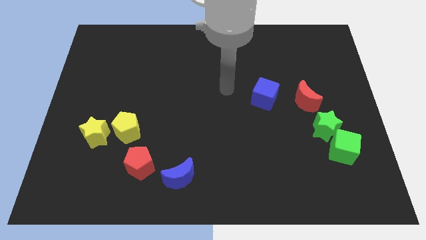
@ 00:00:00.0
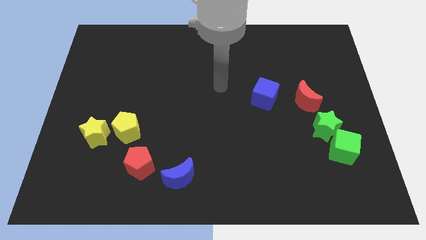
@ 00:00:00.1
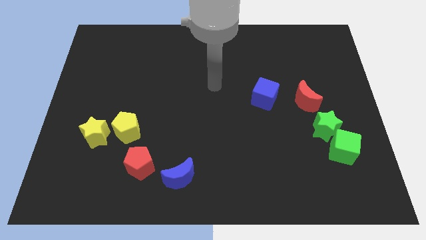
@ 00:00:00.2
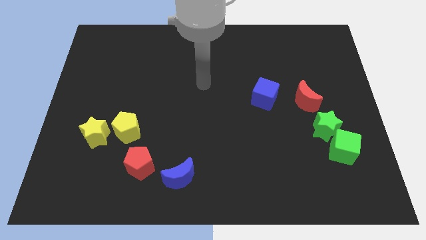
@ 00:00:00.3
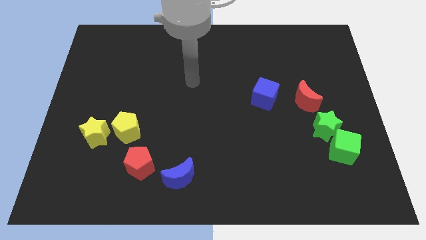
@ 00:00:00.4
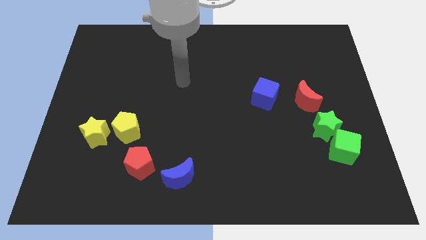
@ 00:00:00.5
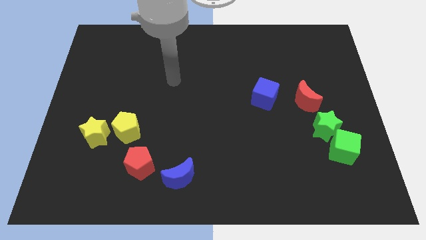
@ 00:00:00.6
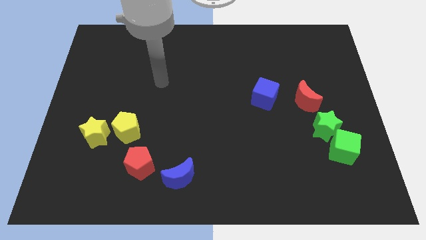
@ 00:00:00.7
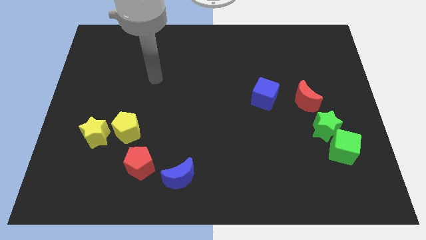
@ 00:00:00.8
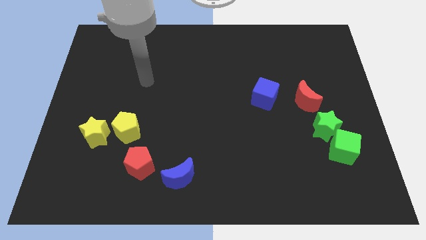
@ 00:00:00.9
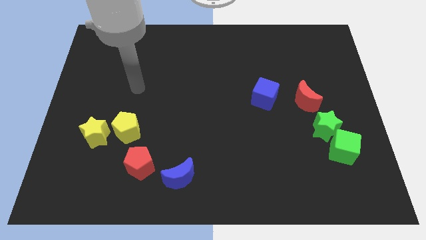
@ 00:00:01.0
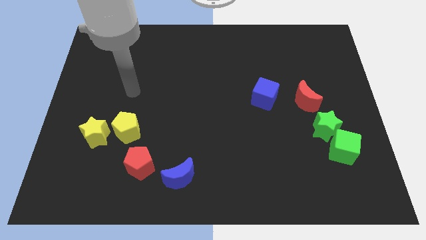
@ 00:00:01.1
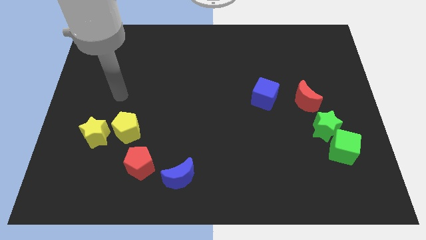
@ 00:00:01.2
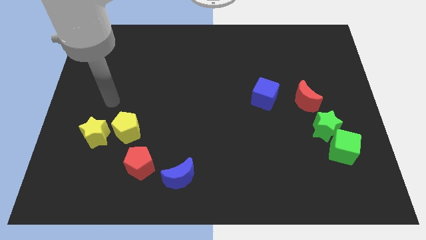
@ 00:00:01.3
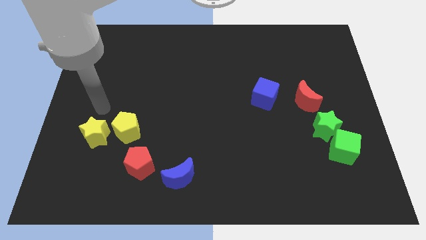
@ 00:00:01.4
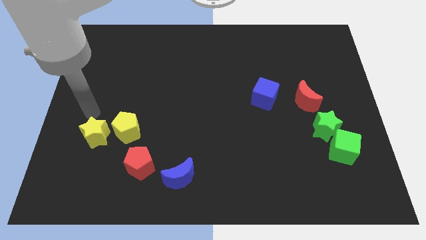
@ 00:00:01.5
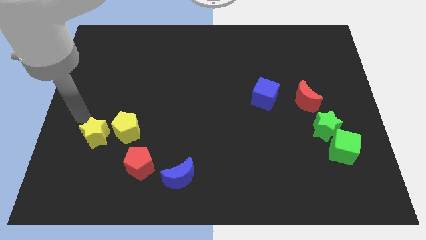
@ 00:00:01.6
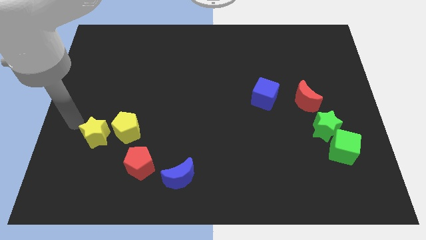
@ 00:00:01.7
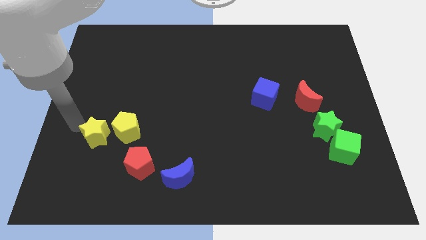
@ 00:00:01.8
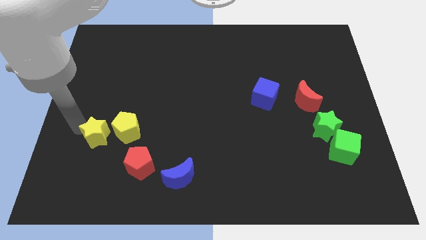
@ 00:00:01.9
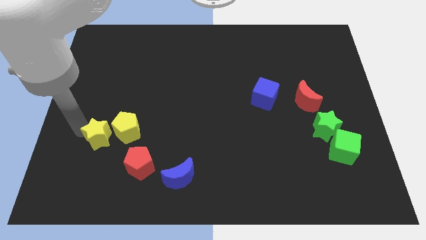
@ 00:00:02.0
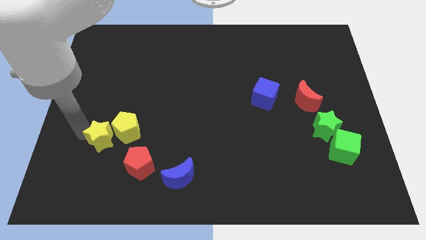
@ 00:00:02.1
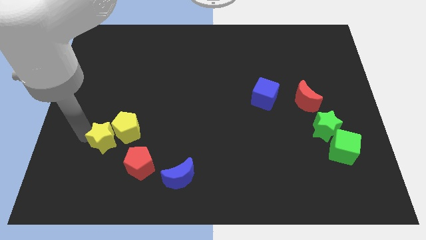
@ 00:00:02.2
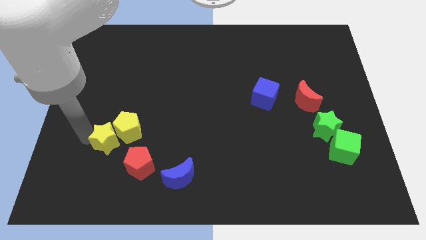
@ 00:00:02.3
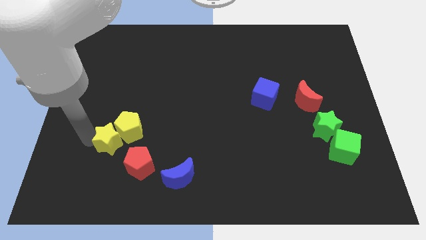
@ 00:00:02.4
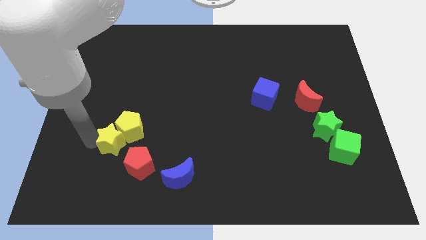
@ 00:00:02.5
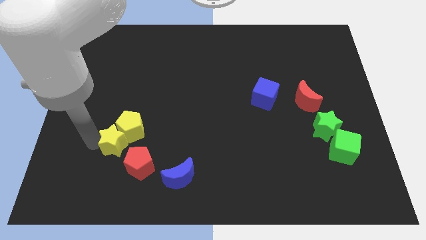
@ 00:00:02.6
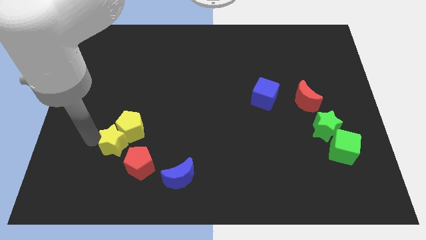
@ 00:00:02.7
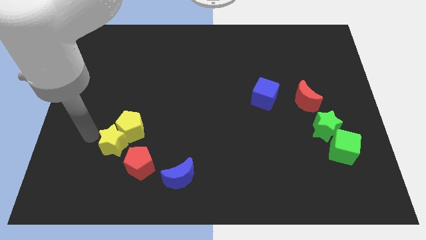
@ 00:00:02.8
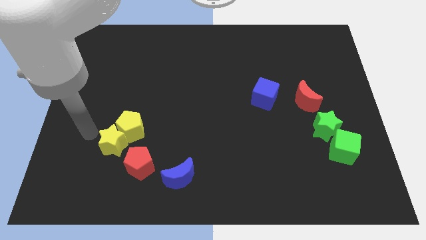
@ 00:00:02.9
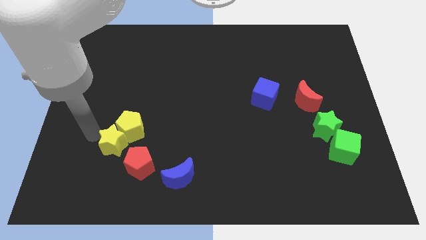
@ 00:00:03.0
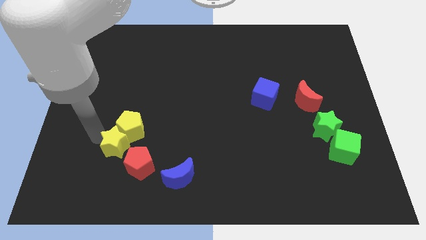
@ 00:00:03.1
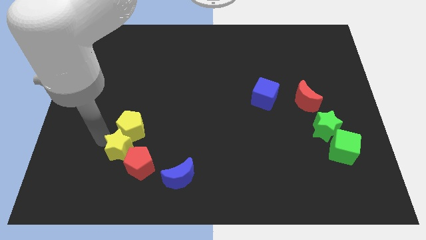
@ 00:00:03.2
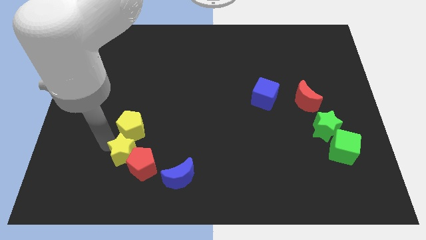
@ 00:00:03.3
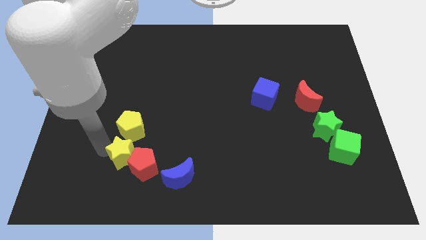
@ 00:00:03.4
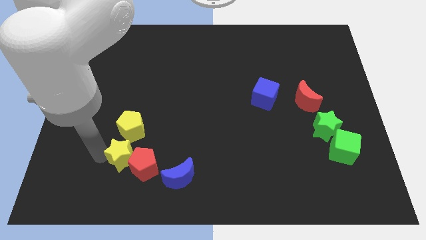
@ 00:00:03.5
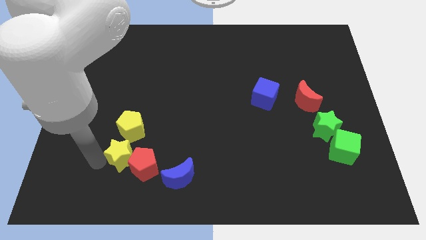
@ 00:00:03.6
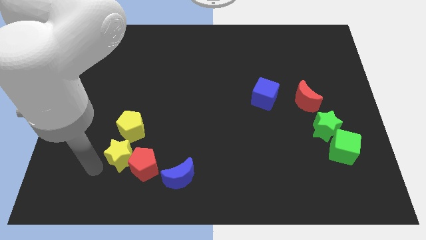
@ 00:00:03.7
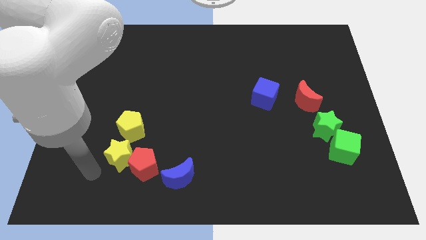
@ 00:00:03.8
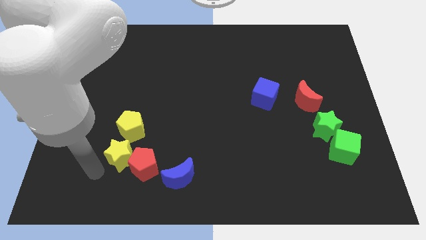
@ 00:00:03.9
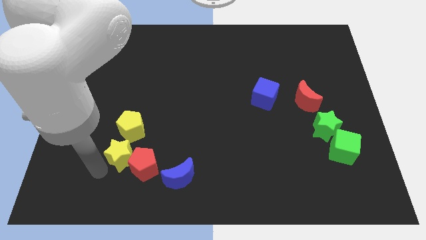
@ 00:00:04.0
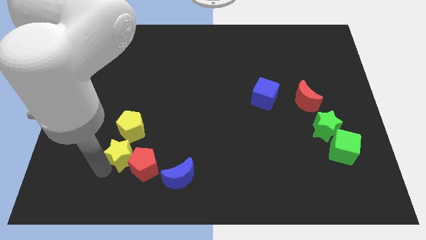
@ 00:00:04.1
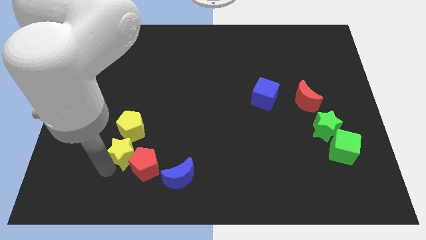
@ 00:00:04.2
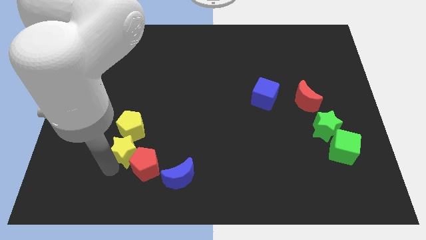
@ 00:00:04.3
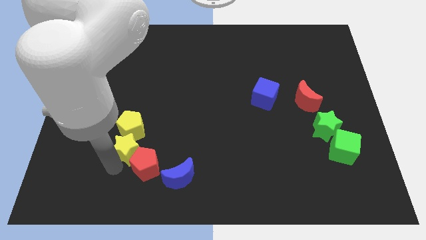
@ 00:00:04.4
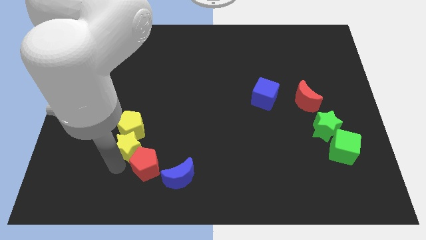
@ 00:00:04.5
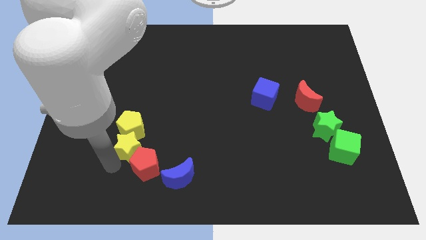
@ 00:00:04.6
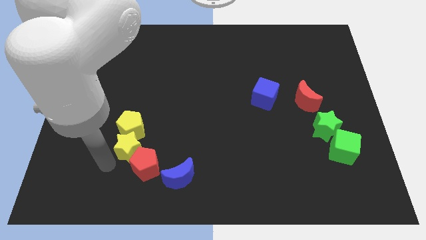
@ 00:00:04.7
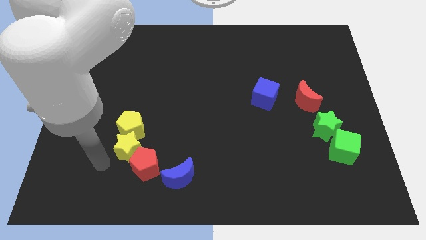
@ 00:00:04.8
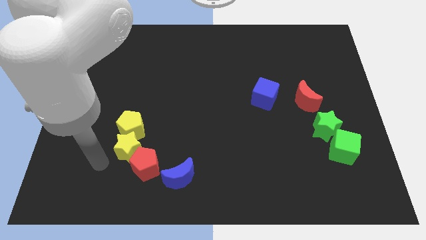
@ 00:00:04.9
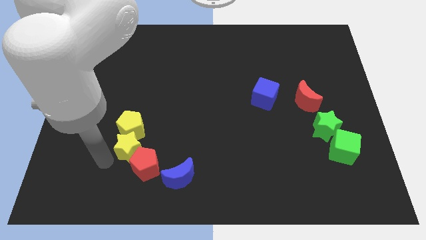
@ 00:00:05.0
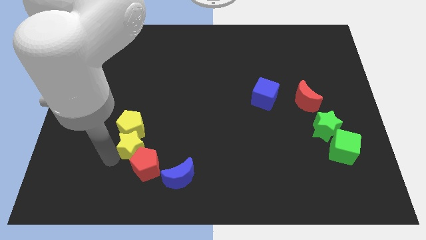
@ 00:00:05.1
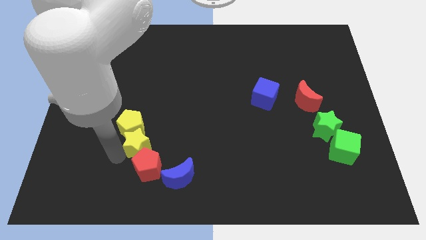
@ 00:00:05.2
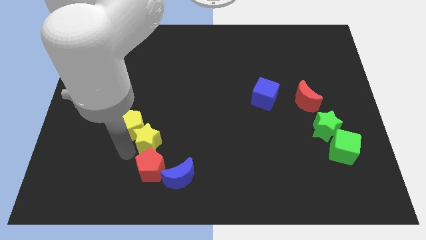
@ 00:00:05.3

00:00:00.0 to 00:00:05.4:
push the yellow star to the right side of the yellow pentagon

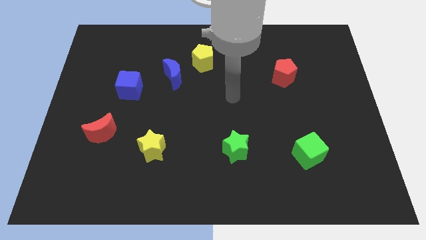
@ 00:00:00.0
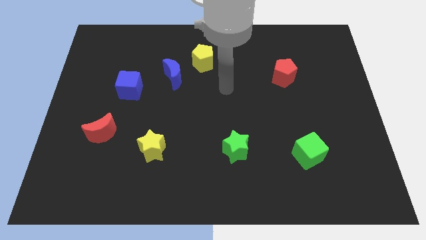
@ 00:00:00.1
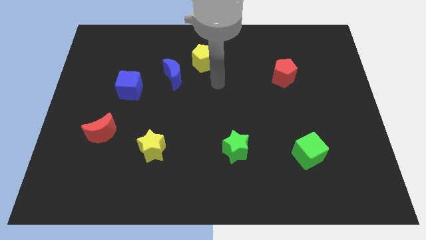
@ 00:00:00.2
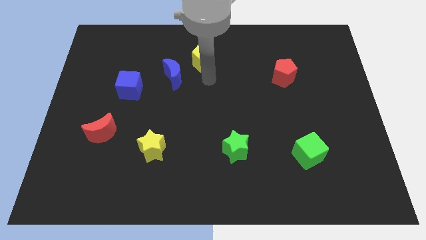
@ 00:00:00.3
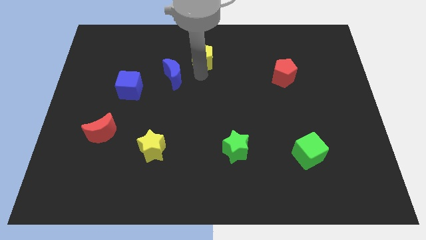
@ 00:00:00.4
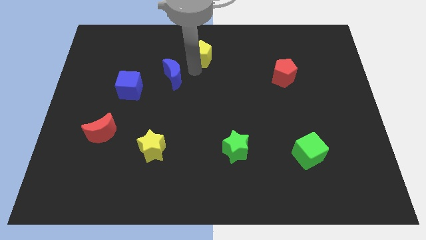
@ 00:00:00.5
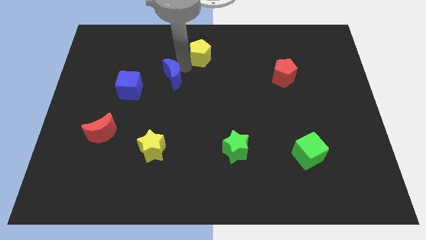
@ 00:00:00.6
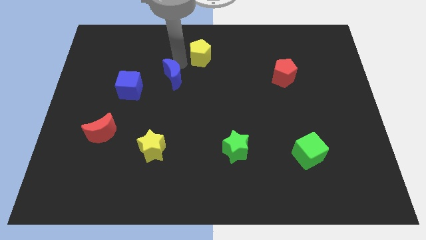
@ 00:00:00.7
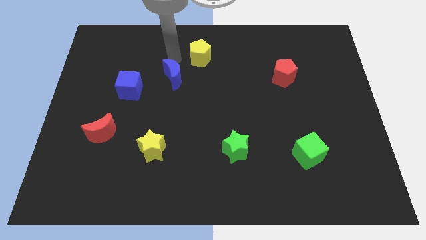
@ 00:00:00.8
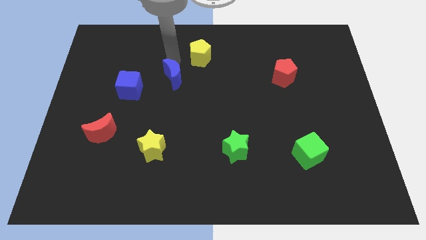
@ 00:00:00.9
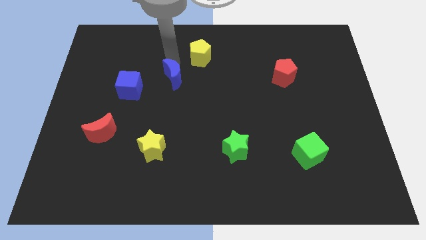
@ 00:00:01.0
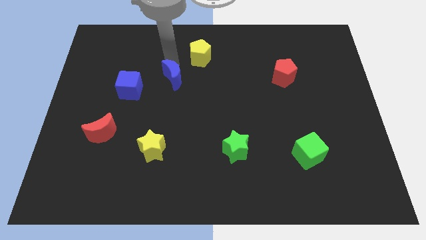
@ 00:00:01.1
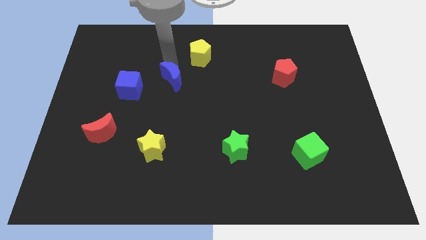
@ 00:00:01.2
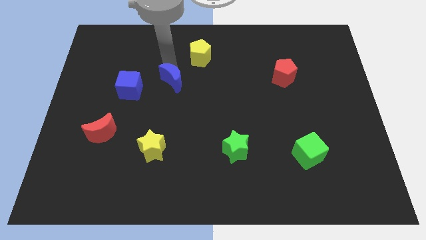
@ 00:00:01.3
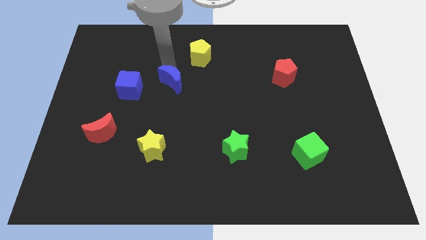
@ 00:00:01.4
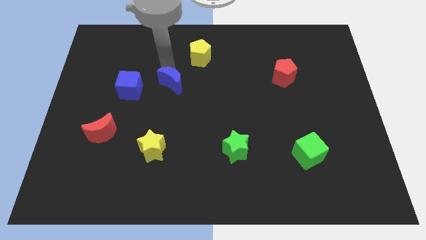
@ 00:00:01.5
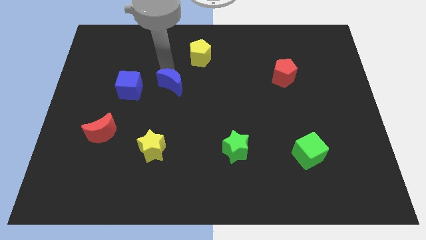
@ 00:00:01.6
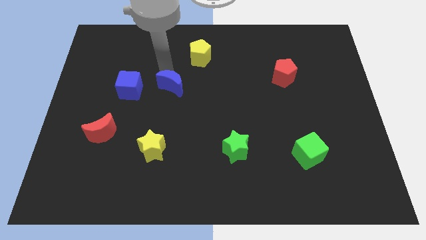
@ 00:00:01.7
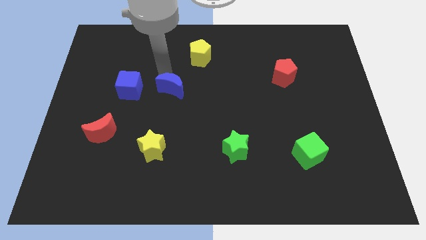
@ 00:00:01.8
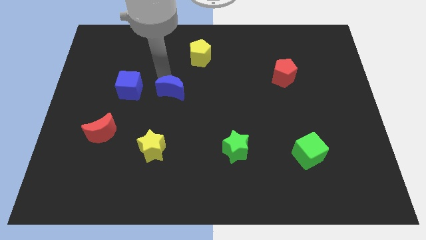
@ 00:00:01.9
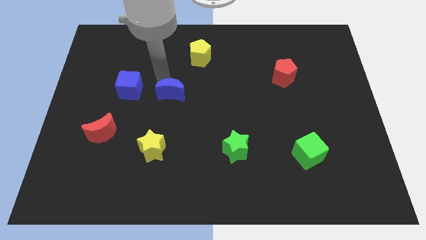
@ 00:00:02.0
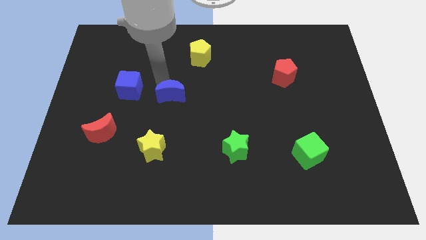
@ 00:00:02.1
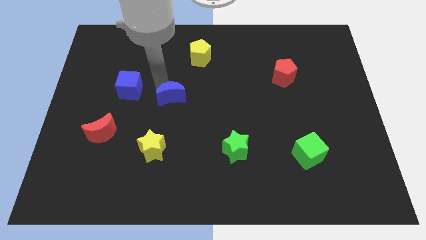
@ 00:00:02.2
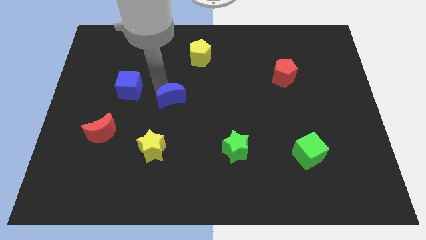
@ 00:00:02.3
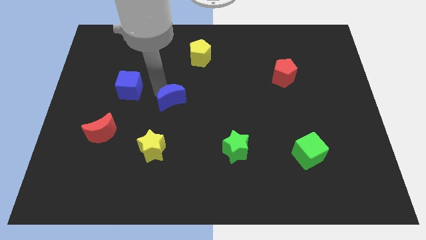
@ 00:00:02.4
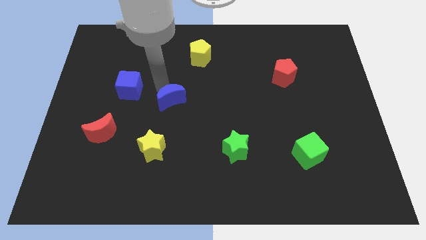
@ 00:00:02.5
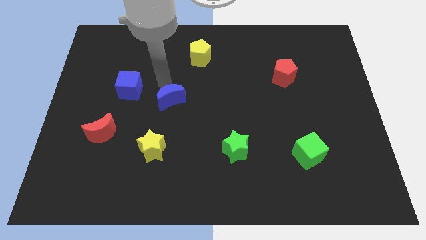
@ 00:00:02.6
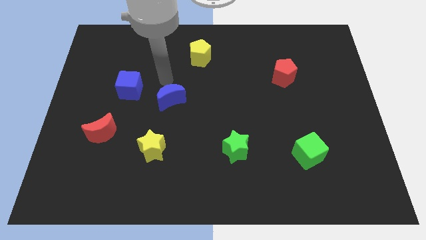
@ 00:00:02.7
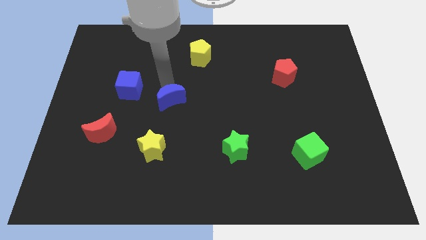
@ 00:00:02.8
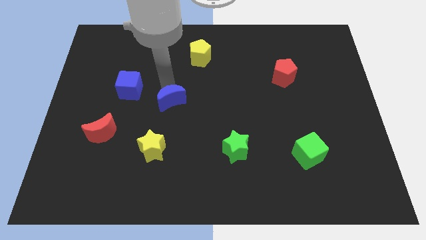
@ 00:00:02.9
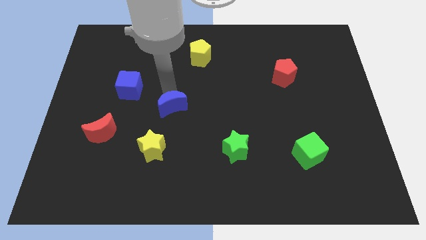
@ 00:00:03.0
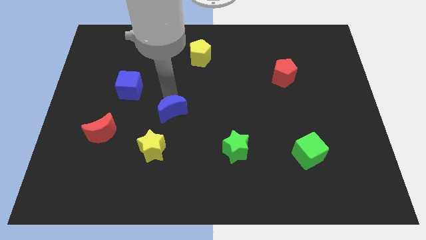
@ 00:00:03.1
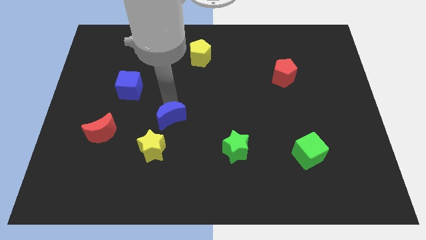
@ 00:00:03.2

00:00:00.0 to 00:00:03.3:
push the blue moon to the top right of the yellow star
